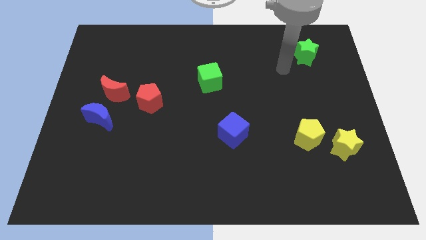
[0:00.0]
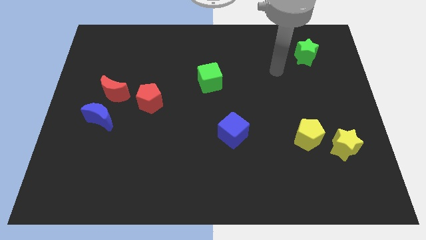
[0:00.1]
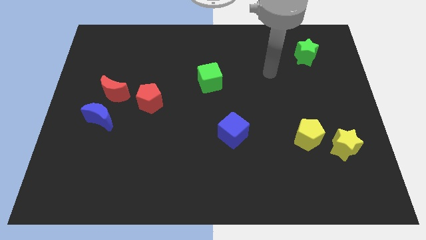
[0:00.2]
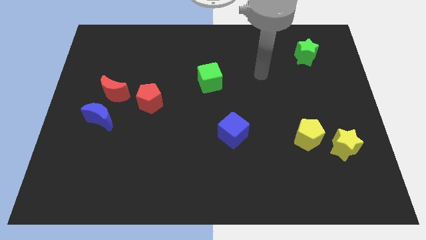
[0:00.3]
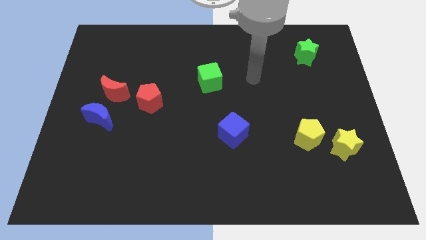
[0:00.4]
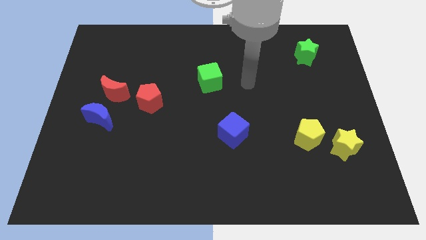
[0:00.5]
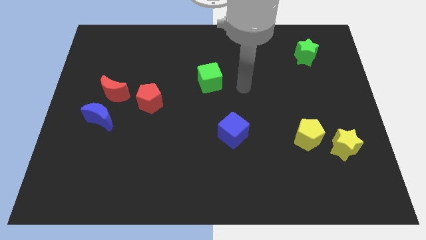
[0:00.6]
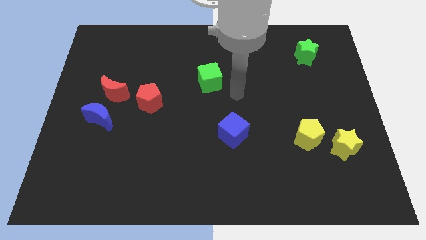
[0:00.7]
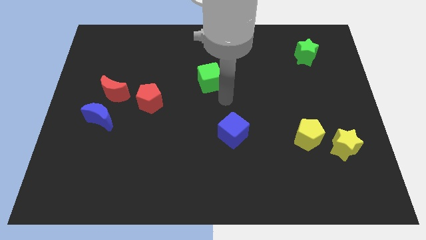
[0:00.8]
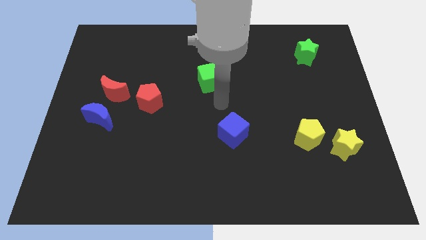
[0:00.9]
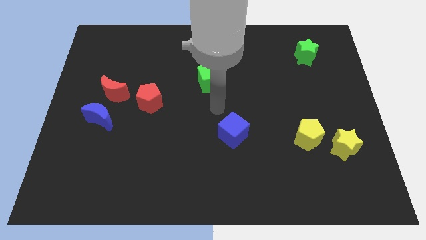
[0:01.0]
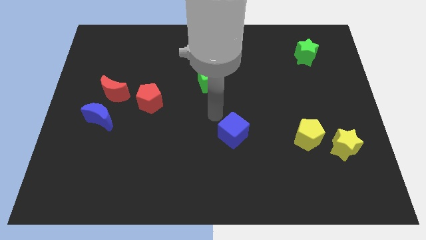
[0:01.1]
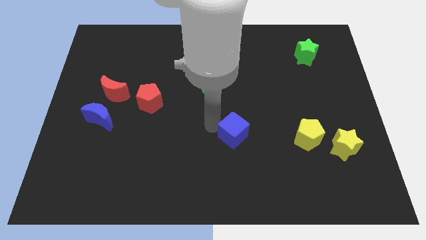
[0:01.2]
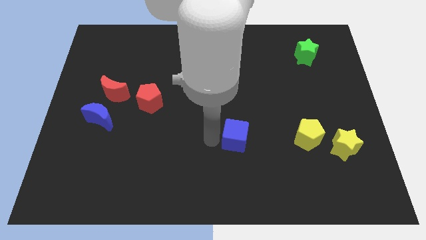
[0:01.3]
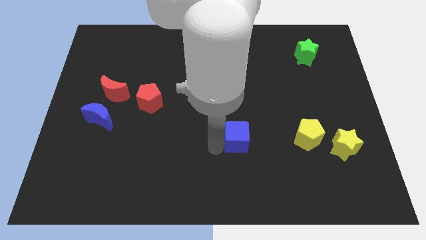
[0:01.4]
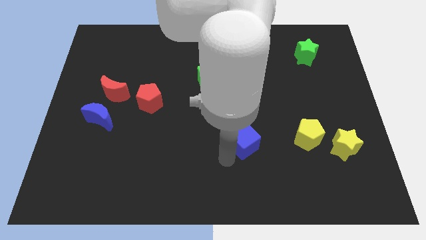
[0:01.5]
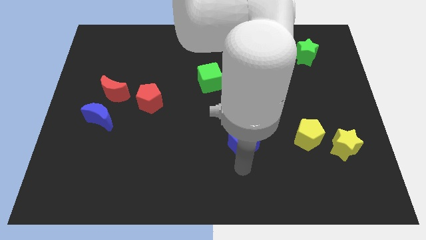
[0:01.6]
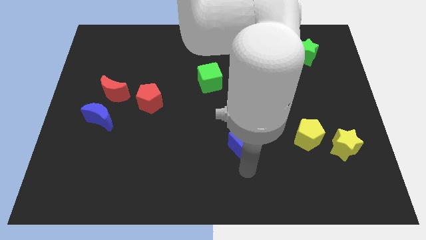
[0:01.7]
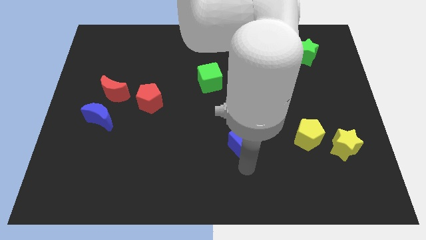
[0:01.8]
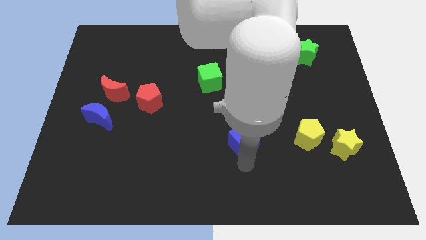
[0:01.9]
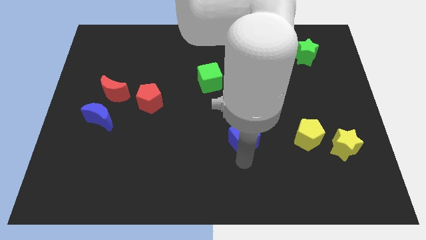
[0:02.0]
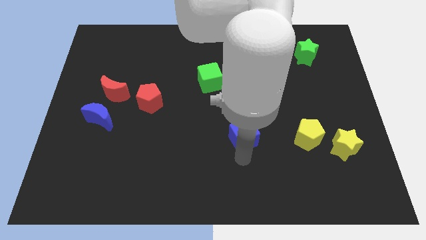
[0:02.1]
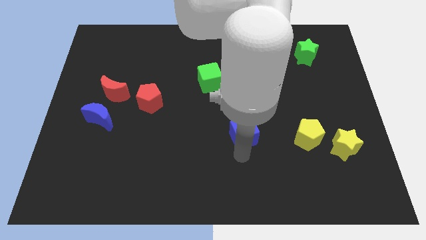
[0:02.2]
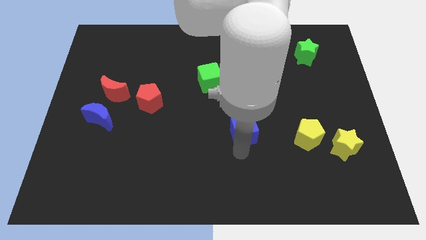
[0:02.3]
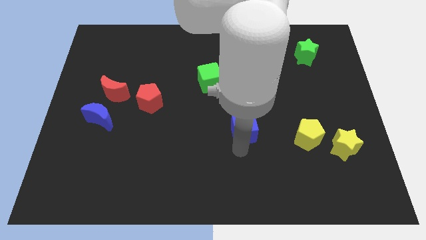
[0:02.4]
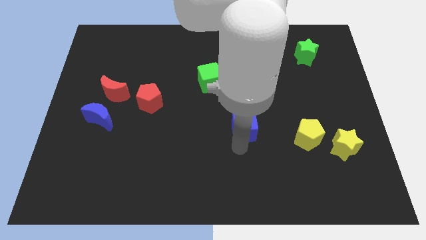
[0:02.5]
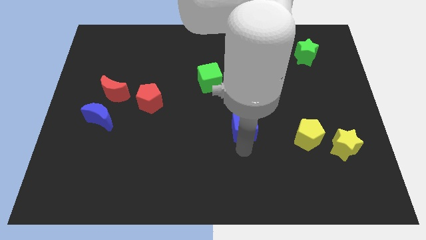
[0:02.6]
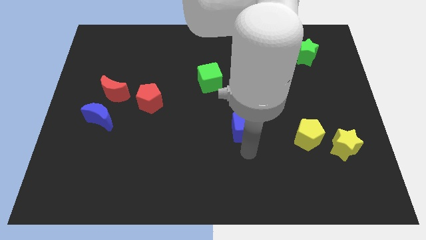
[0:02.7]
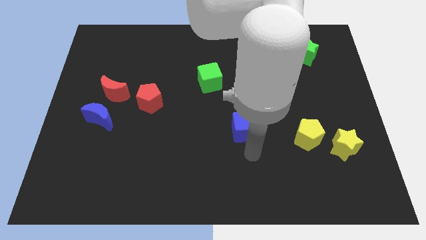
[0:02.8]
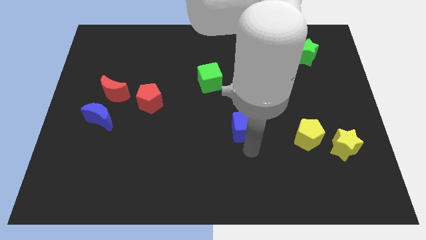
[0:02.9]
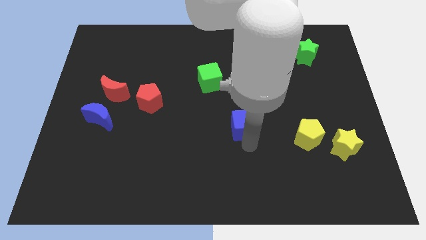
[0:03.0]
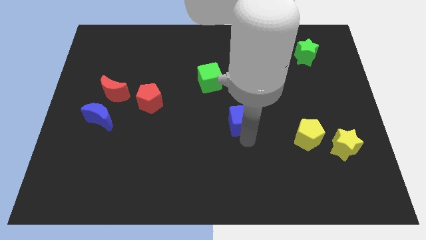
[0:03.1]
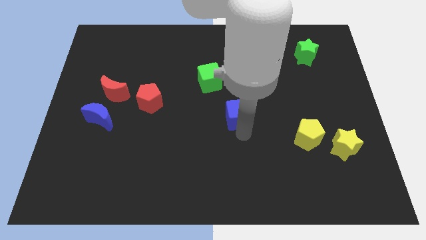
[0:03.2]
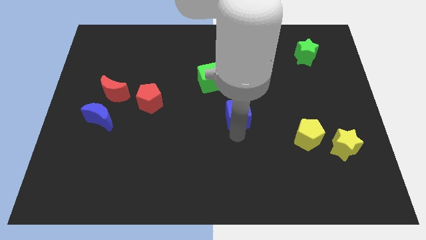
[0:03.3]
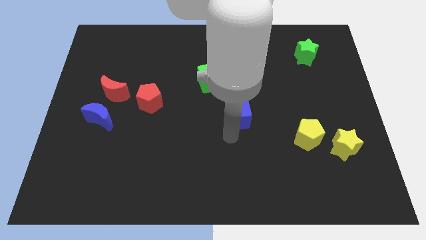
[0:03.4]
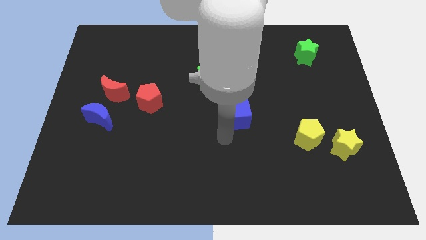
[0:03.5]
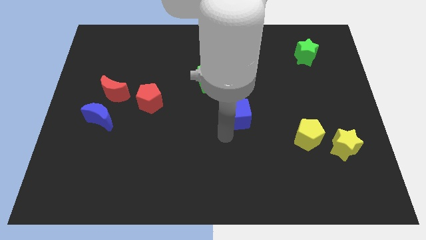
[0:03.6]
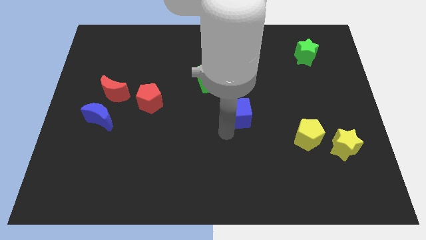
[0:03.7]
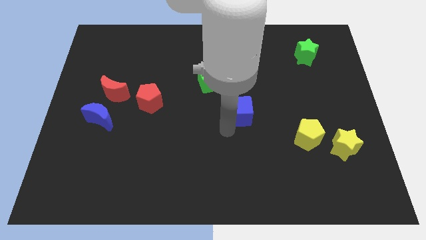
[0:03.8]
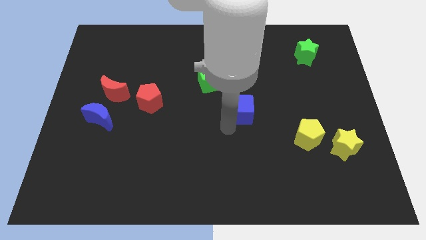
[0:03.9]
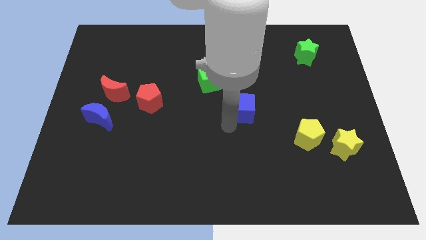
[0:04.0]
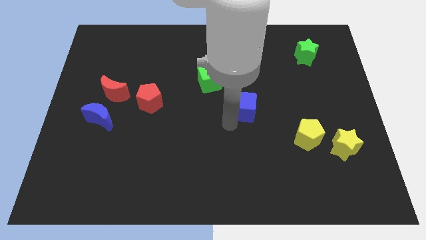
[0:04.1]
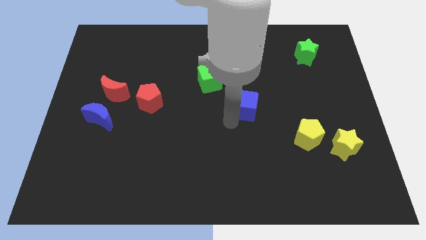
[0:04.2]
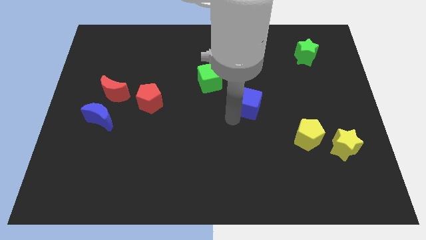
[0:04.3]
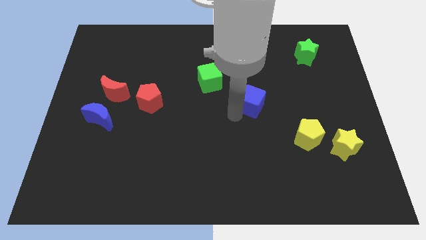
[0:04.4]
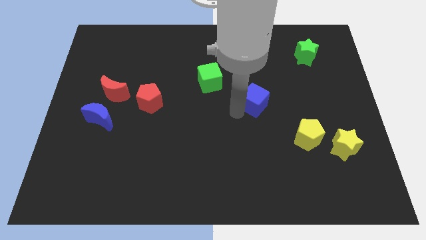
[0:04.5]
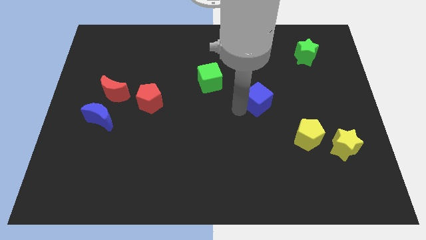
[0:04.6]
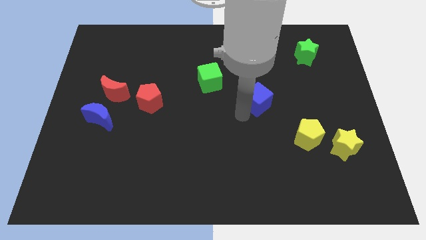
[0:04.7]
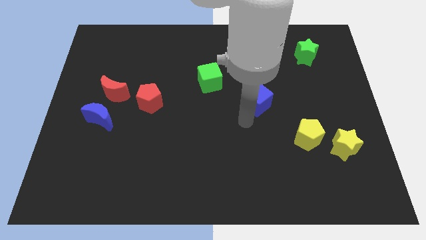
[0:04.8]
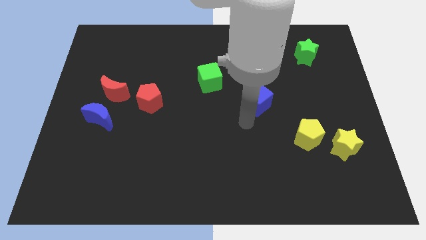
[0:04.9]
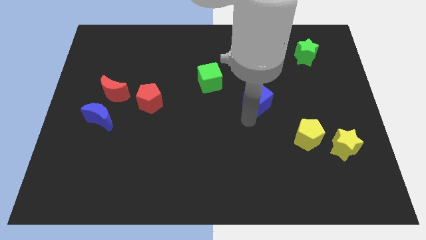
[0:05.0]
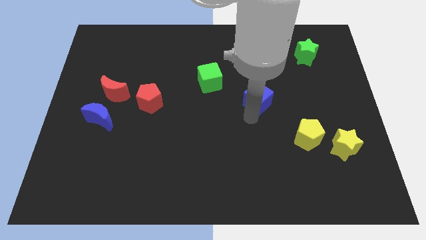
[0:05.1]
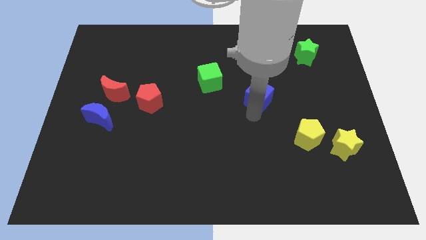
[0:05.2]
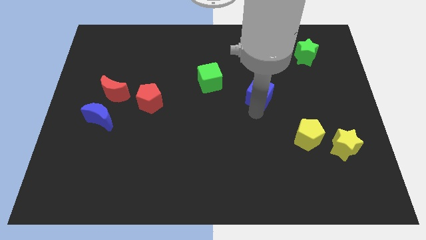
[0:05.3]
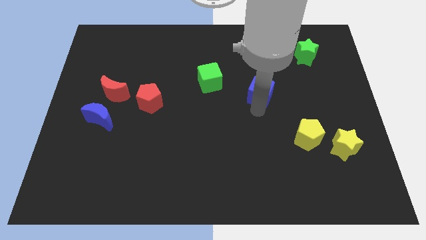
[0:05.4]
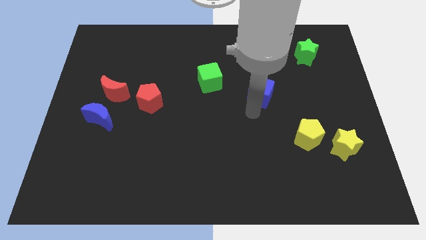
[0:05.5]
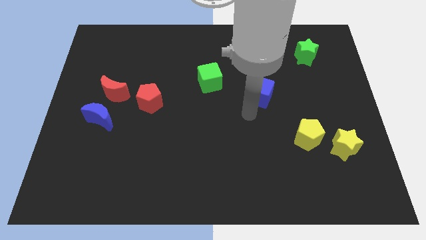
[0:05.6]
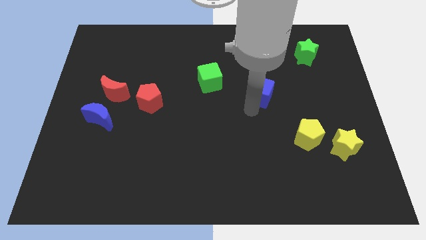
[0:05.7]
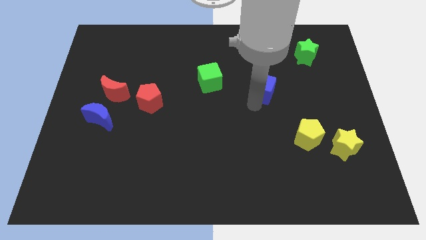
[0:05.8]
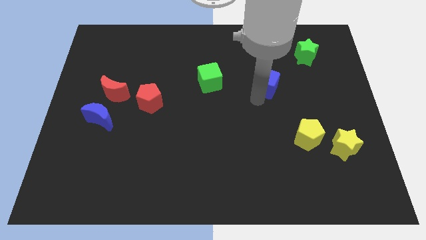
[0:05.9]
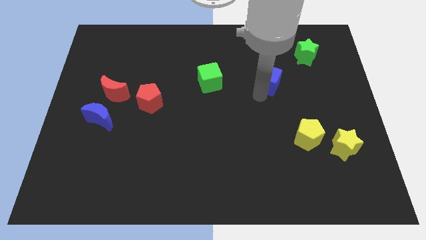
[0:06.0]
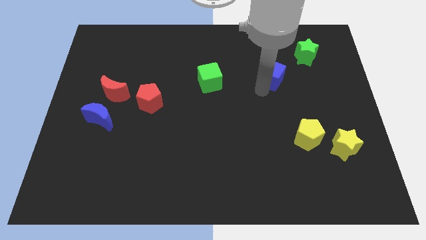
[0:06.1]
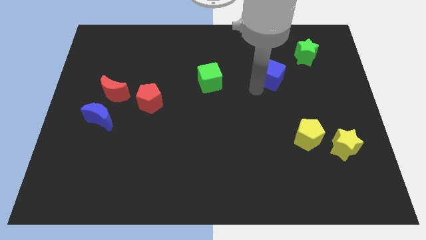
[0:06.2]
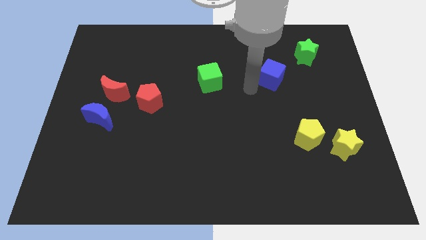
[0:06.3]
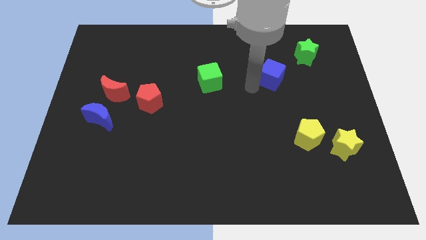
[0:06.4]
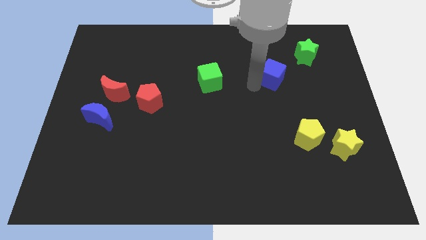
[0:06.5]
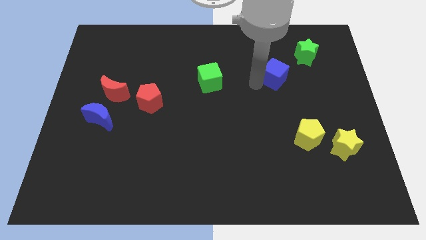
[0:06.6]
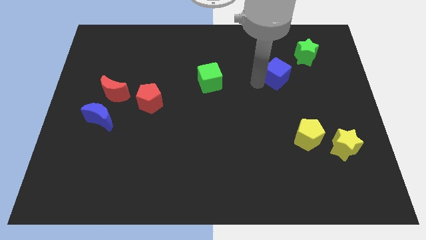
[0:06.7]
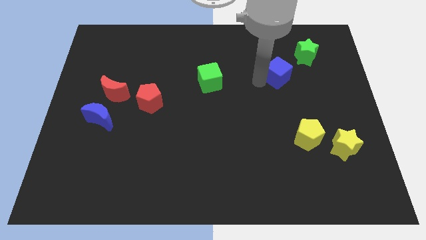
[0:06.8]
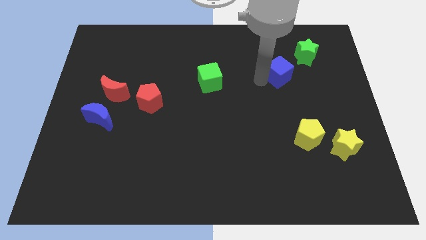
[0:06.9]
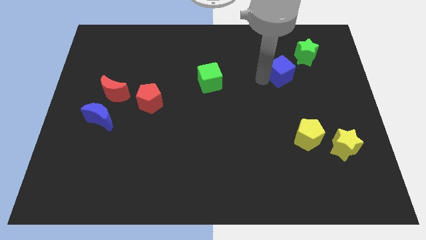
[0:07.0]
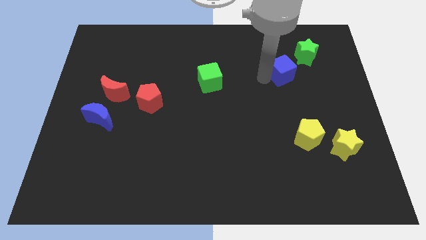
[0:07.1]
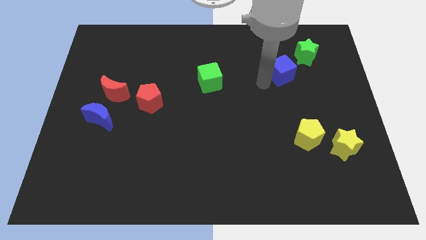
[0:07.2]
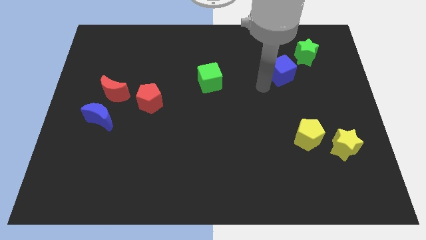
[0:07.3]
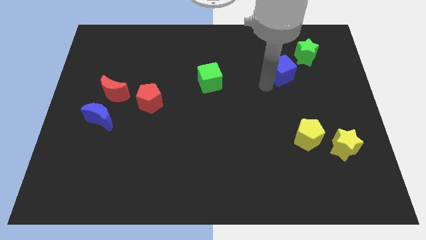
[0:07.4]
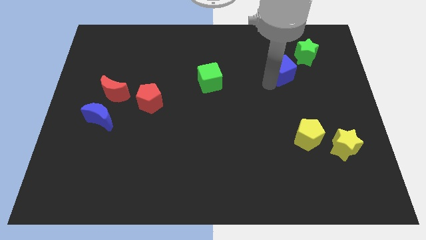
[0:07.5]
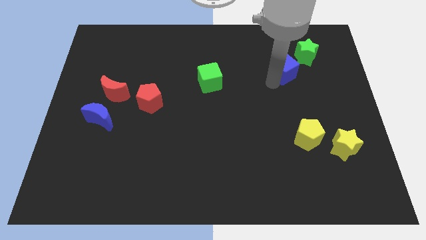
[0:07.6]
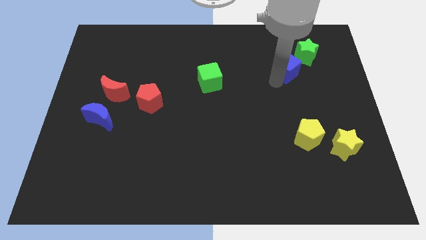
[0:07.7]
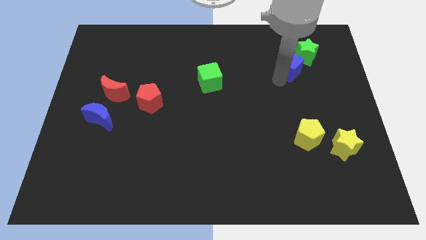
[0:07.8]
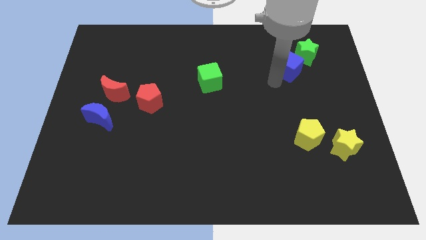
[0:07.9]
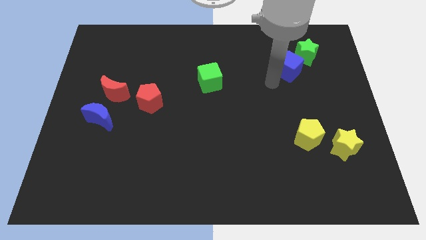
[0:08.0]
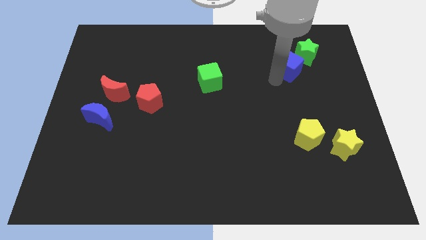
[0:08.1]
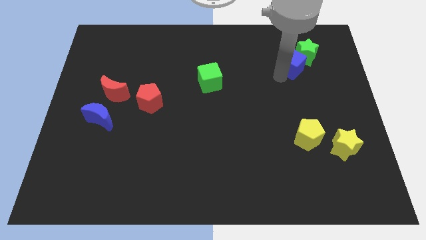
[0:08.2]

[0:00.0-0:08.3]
put the blue cube to the green star
